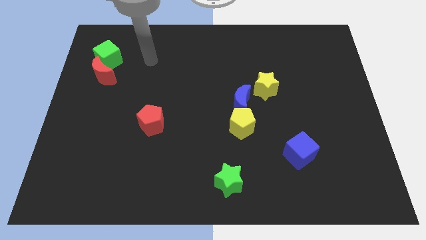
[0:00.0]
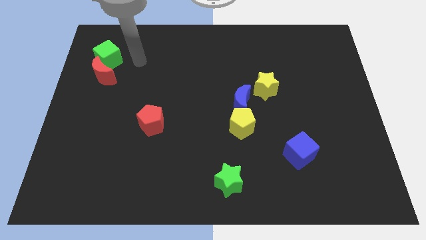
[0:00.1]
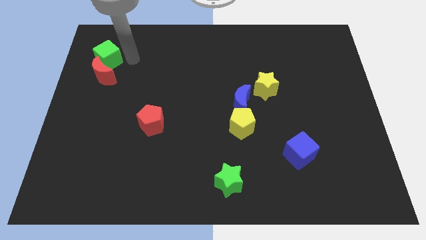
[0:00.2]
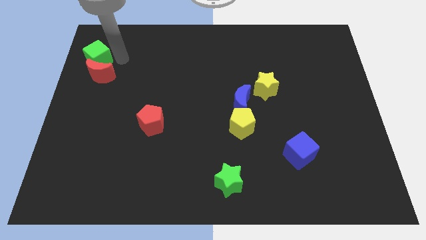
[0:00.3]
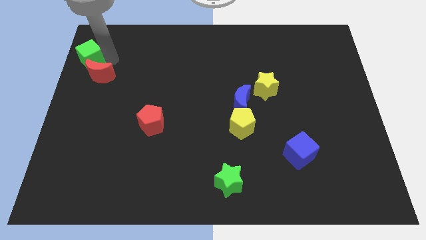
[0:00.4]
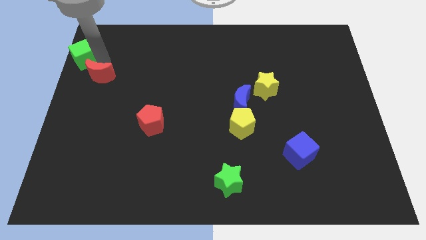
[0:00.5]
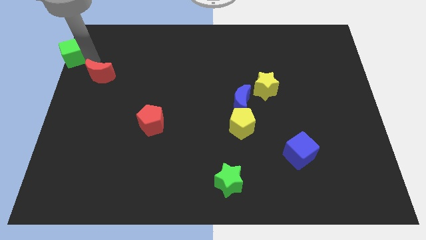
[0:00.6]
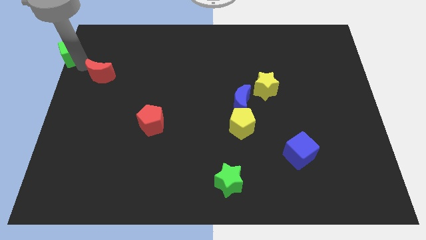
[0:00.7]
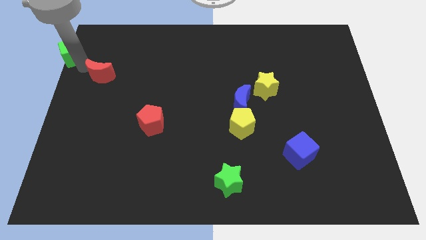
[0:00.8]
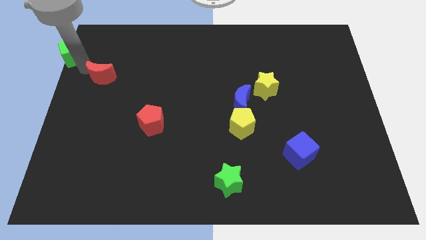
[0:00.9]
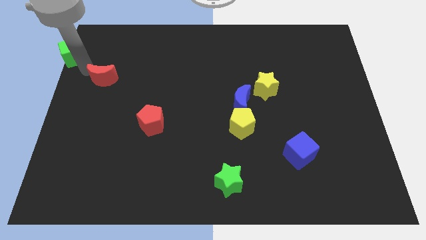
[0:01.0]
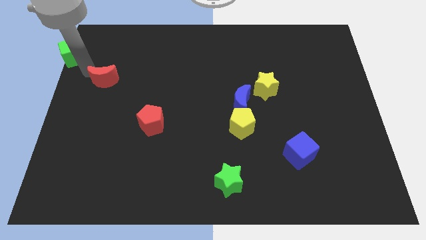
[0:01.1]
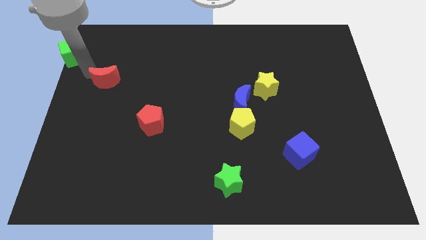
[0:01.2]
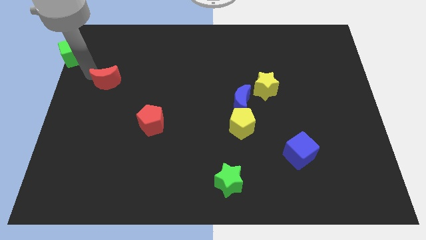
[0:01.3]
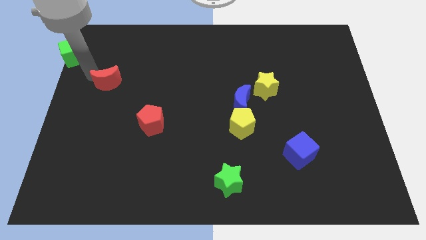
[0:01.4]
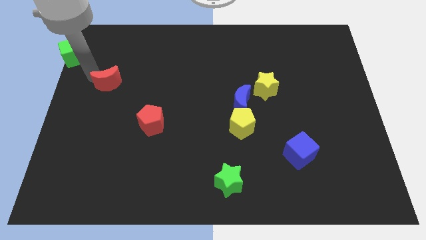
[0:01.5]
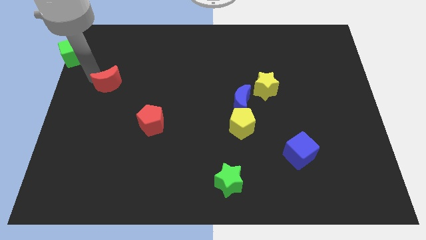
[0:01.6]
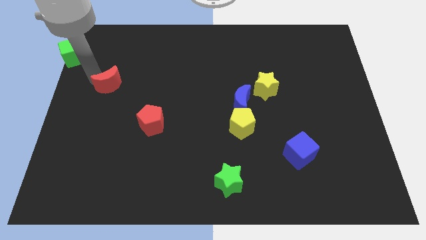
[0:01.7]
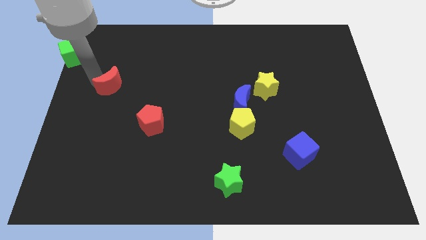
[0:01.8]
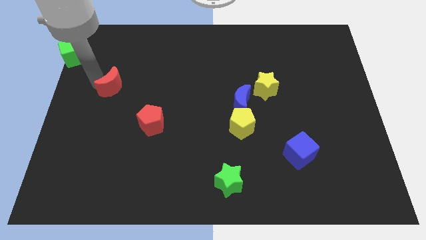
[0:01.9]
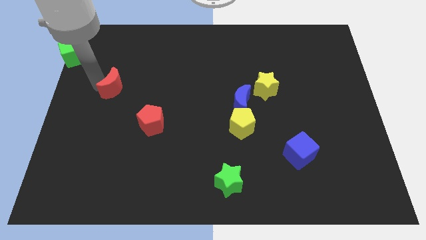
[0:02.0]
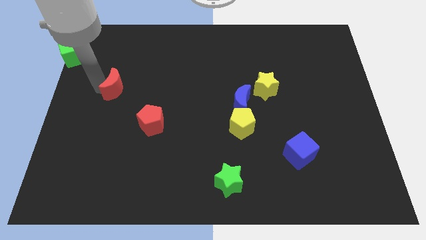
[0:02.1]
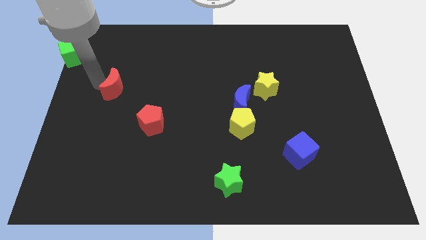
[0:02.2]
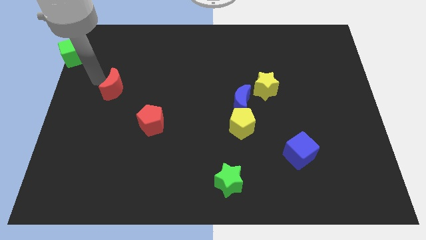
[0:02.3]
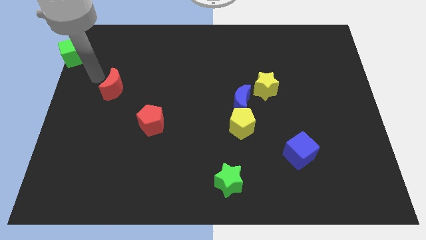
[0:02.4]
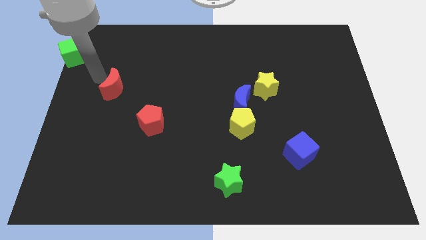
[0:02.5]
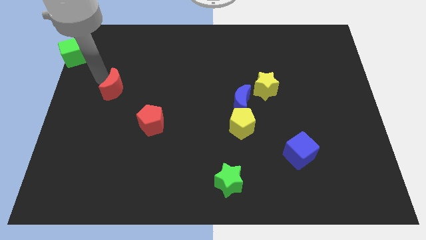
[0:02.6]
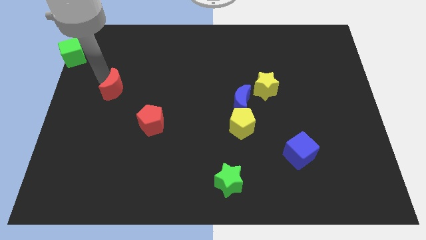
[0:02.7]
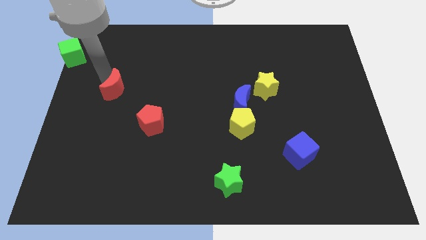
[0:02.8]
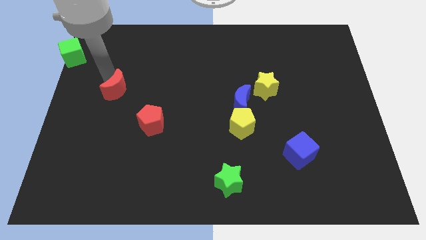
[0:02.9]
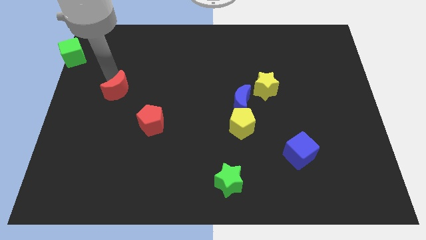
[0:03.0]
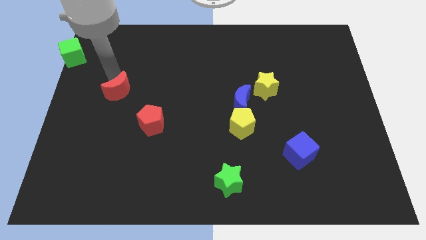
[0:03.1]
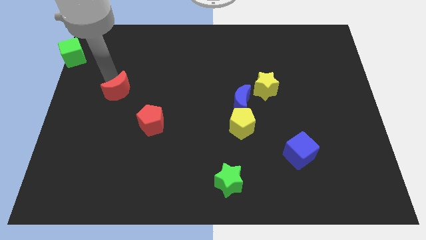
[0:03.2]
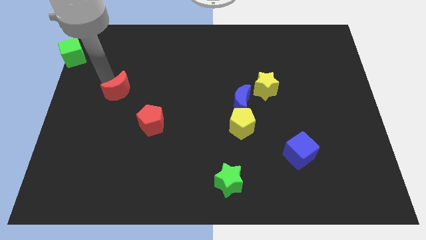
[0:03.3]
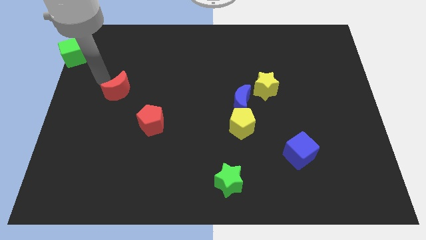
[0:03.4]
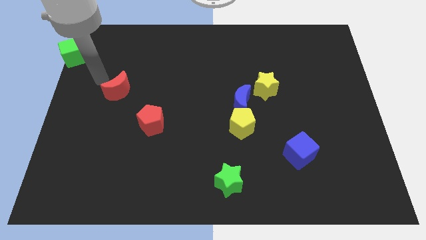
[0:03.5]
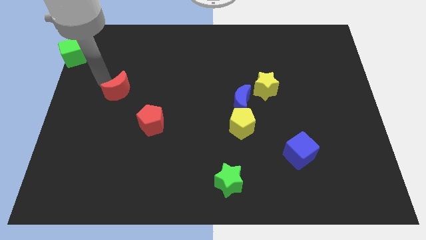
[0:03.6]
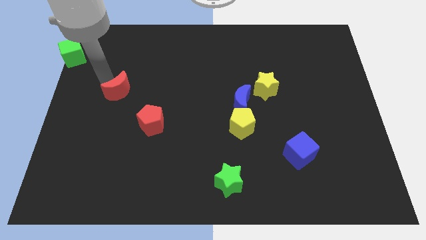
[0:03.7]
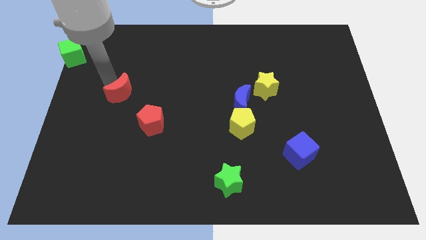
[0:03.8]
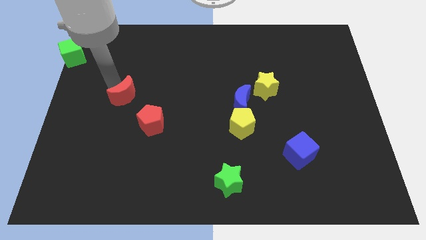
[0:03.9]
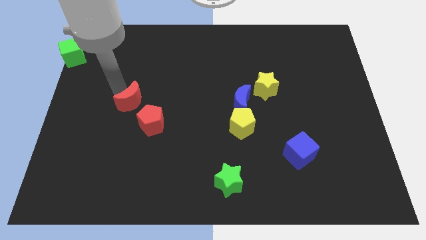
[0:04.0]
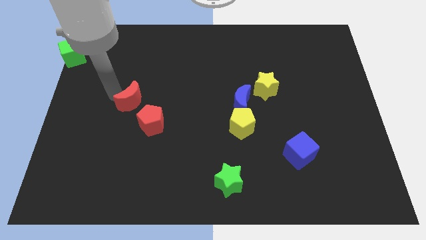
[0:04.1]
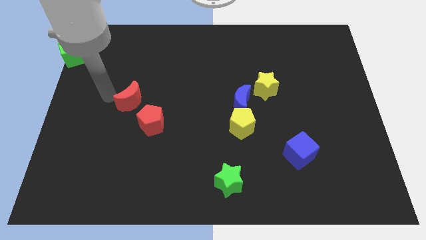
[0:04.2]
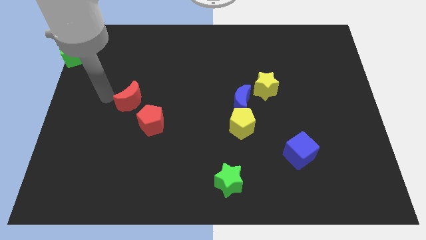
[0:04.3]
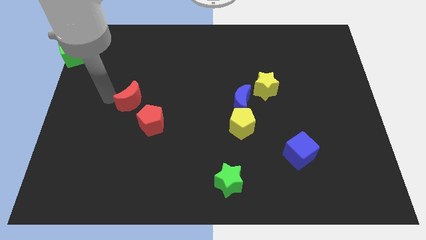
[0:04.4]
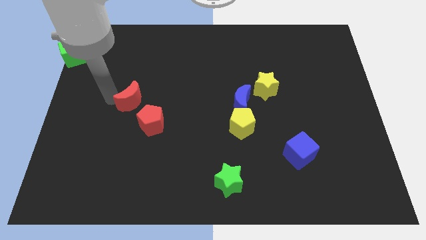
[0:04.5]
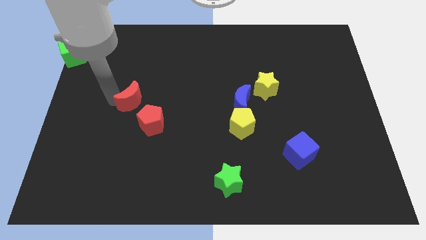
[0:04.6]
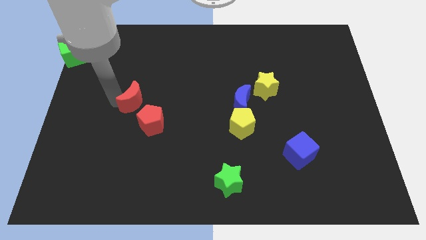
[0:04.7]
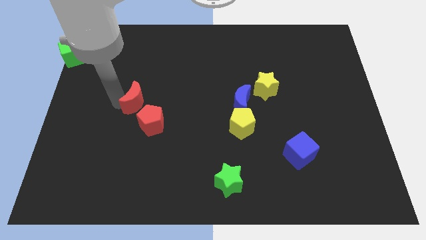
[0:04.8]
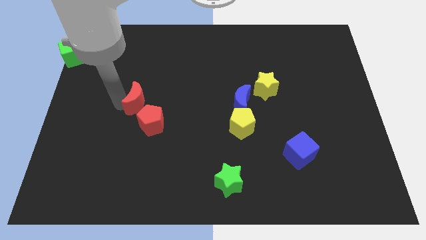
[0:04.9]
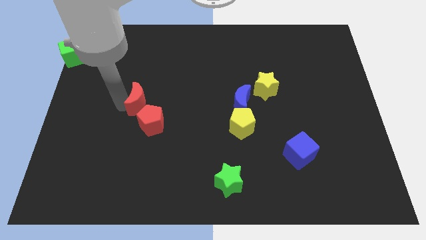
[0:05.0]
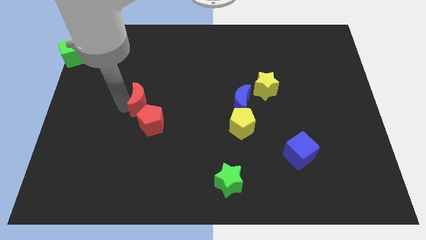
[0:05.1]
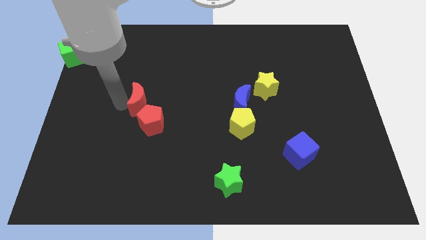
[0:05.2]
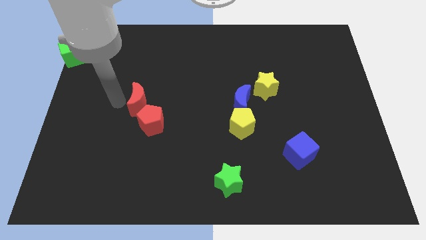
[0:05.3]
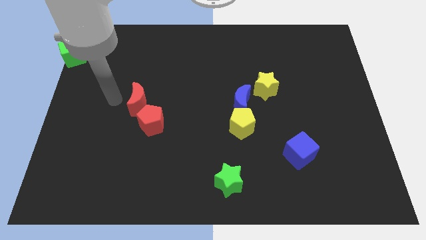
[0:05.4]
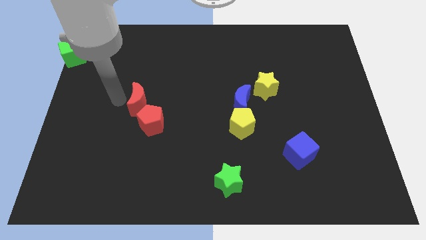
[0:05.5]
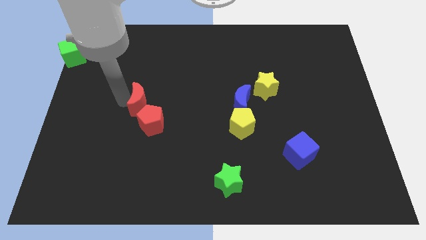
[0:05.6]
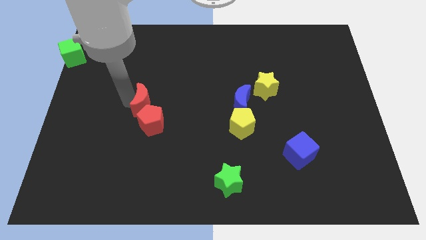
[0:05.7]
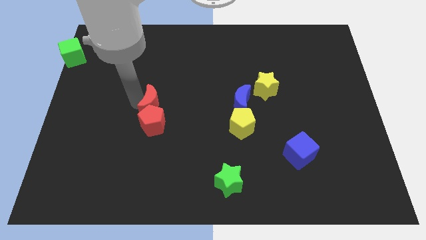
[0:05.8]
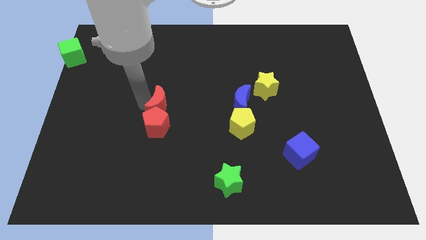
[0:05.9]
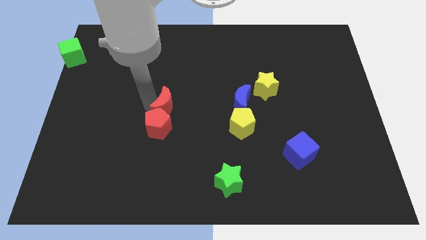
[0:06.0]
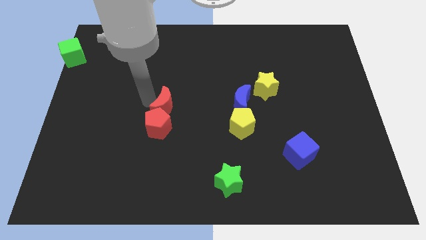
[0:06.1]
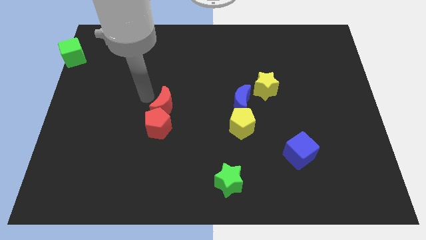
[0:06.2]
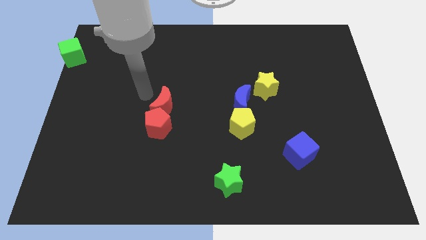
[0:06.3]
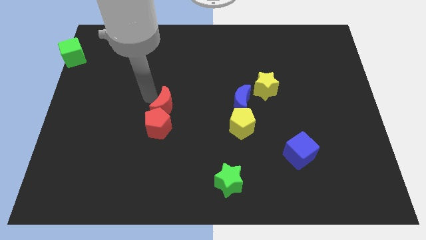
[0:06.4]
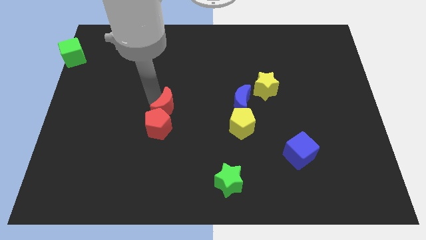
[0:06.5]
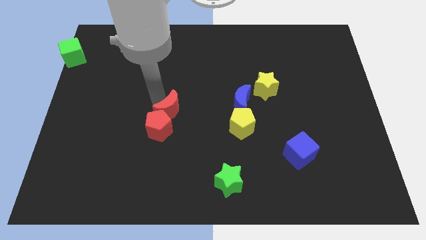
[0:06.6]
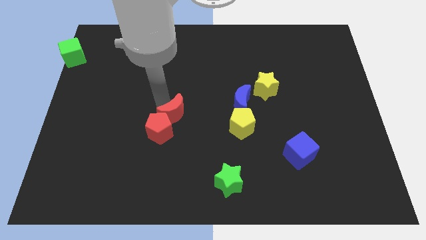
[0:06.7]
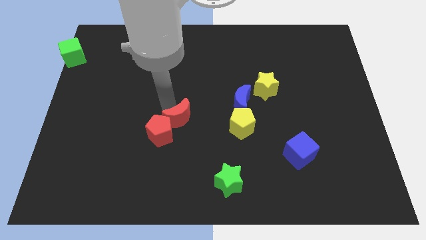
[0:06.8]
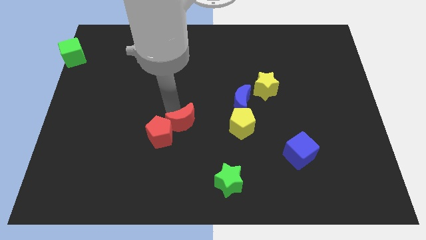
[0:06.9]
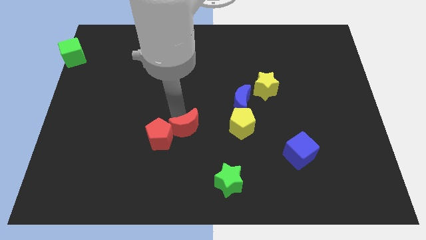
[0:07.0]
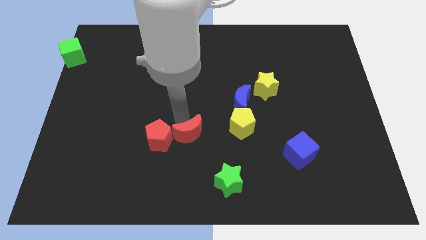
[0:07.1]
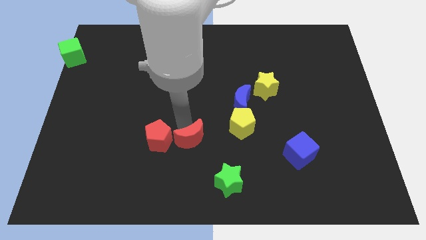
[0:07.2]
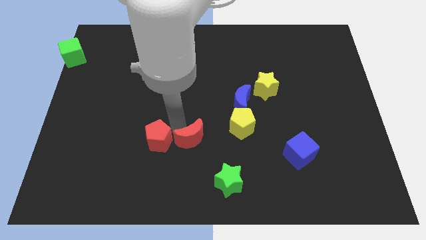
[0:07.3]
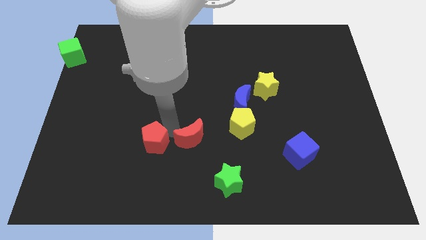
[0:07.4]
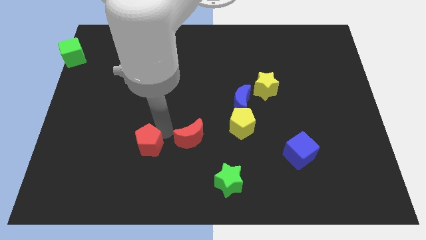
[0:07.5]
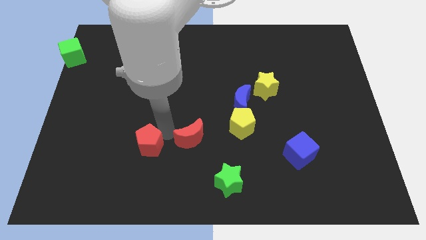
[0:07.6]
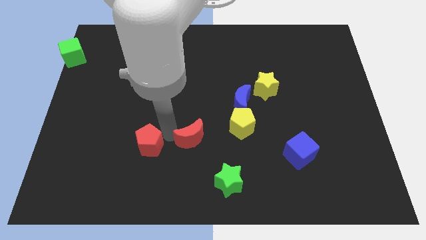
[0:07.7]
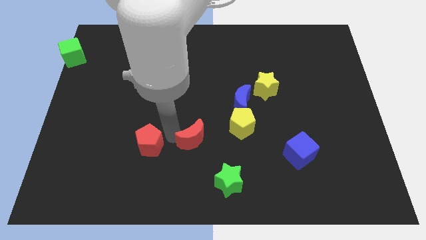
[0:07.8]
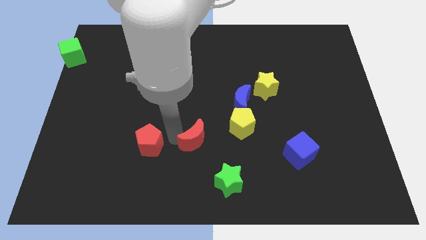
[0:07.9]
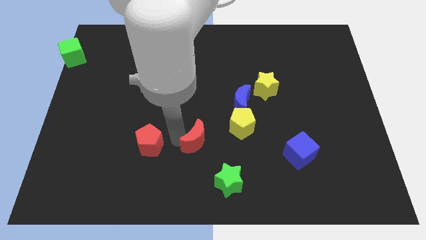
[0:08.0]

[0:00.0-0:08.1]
put the red moon to the bottom left side of the yellow pentagon
